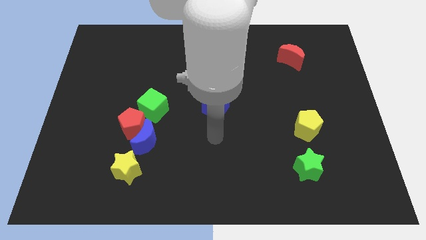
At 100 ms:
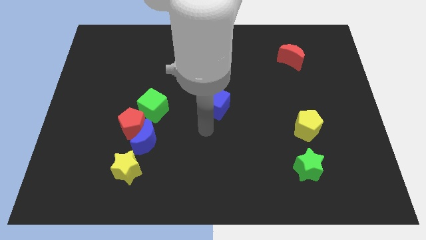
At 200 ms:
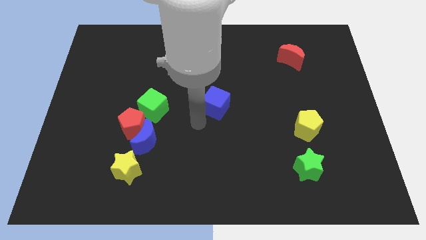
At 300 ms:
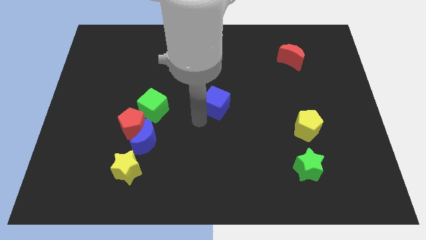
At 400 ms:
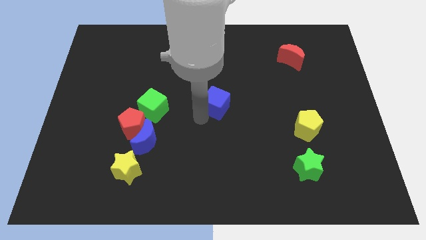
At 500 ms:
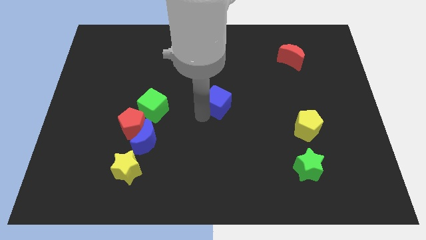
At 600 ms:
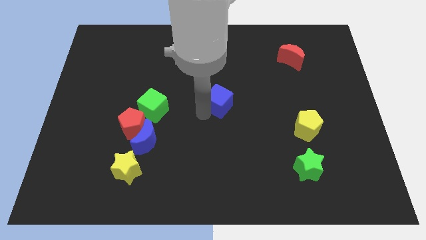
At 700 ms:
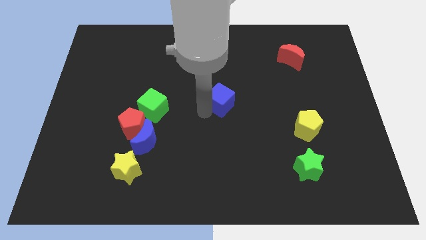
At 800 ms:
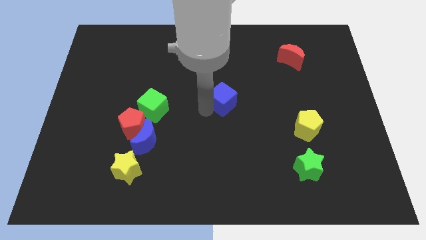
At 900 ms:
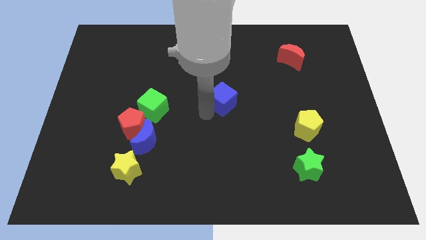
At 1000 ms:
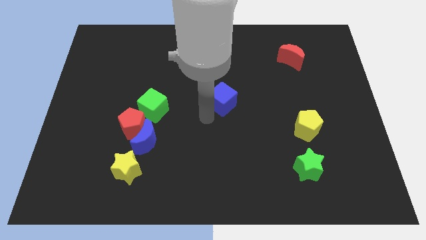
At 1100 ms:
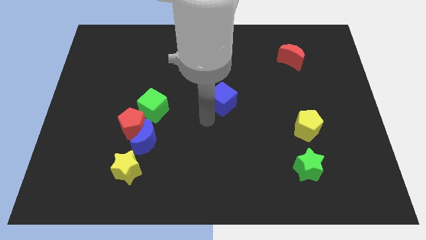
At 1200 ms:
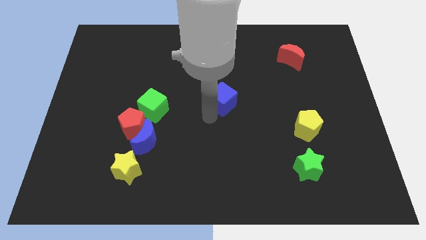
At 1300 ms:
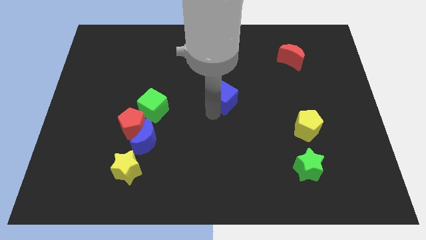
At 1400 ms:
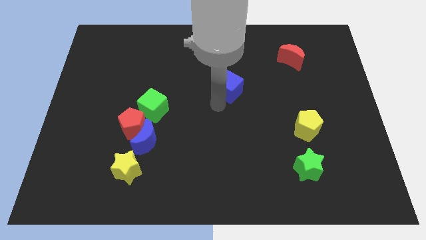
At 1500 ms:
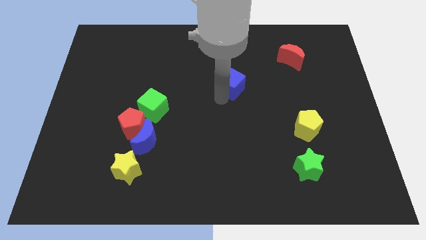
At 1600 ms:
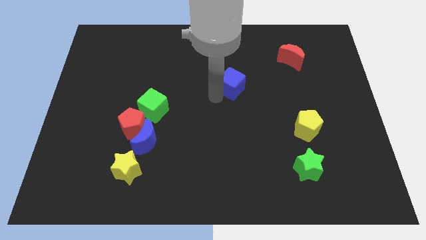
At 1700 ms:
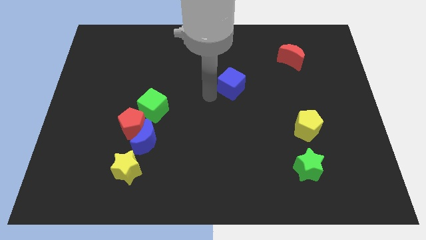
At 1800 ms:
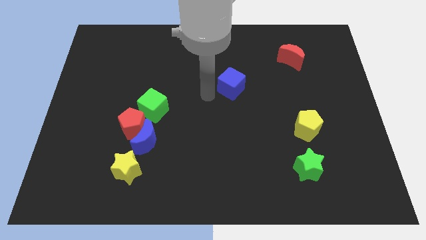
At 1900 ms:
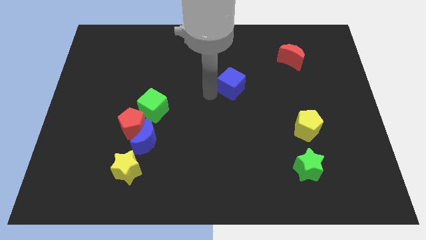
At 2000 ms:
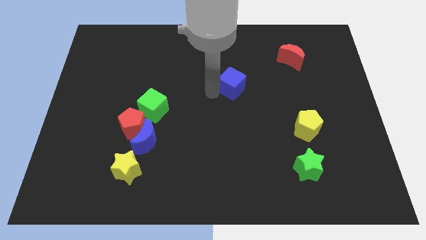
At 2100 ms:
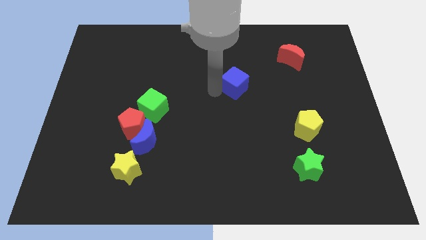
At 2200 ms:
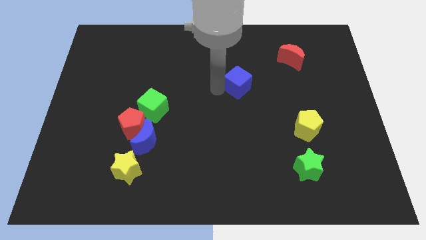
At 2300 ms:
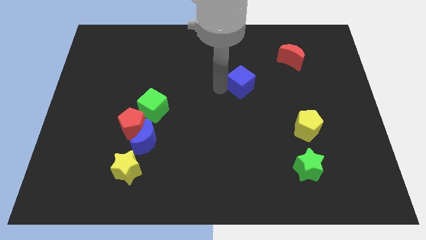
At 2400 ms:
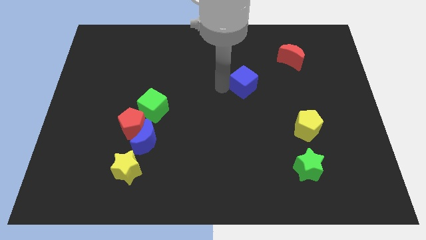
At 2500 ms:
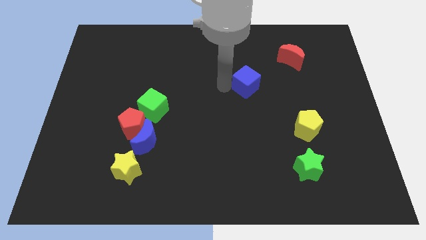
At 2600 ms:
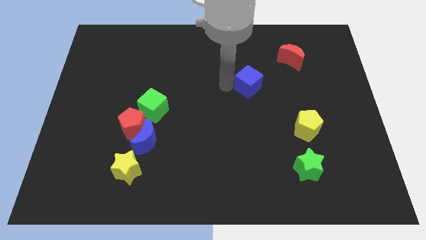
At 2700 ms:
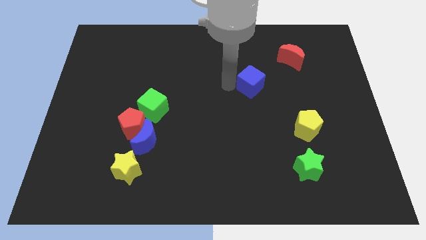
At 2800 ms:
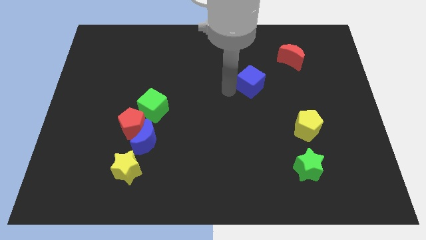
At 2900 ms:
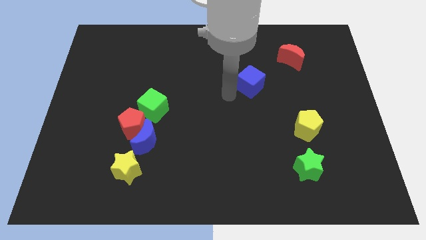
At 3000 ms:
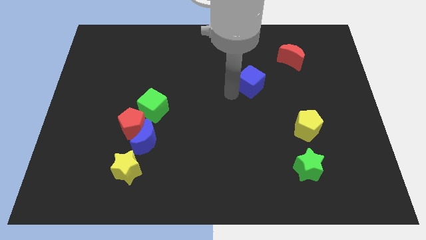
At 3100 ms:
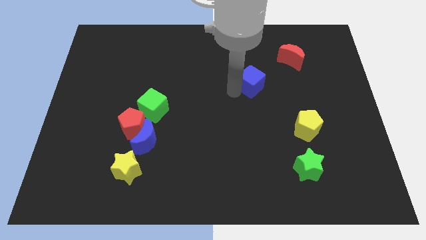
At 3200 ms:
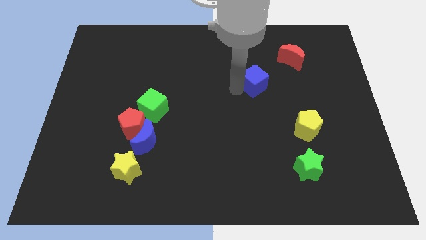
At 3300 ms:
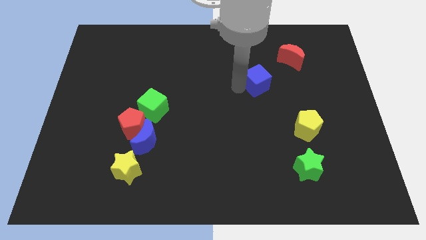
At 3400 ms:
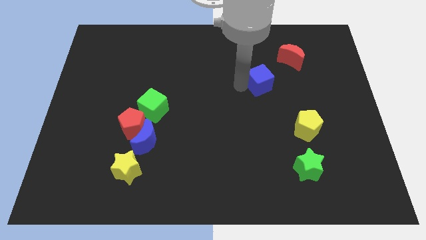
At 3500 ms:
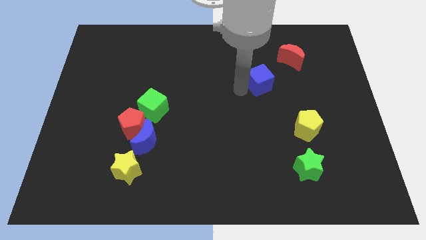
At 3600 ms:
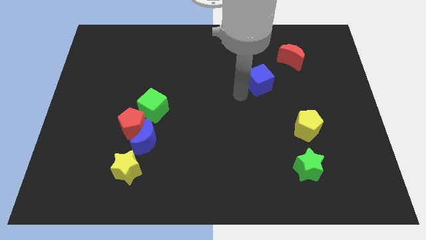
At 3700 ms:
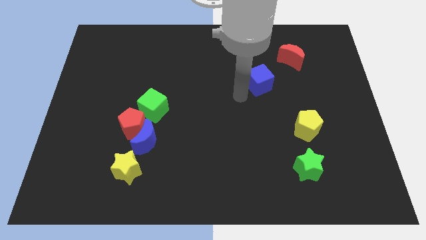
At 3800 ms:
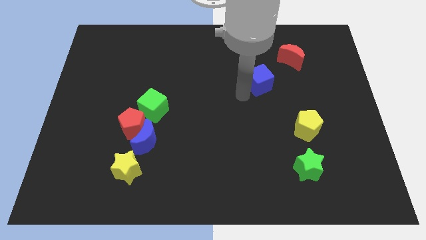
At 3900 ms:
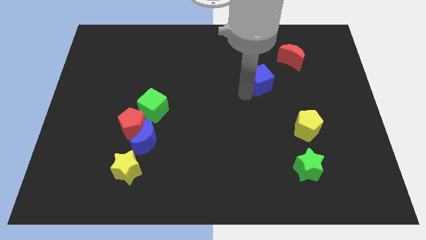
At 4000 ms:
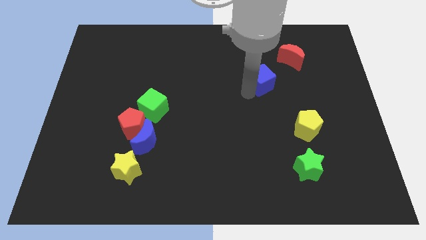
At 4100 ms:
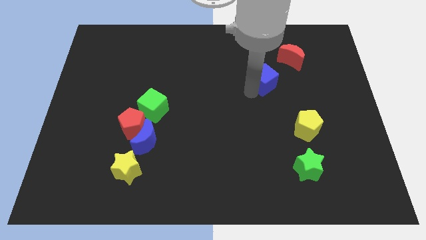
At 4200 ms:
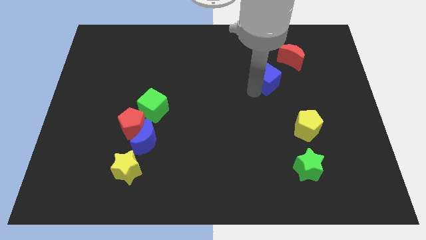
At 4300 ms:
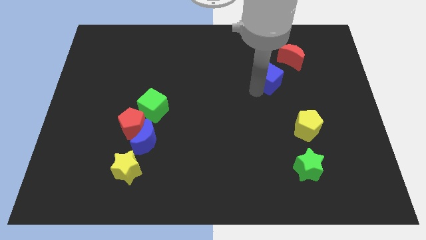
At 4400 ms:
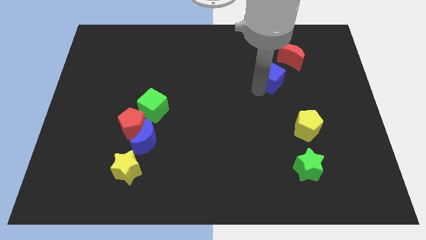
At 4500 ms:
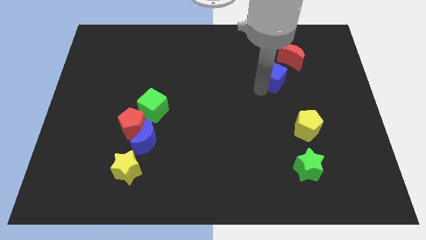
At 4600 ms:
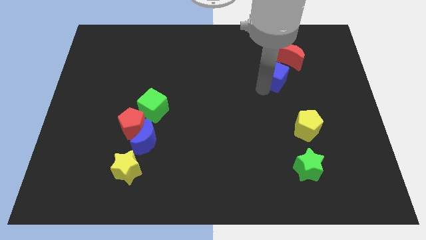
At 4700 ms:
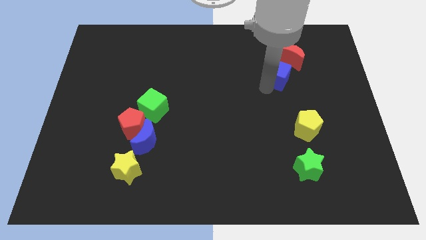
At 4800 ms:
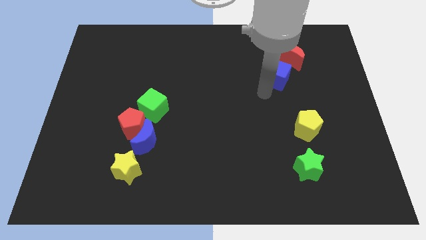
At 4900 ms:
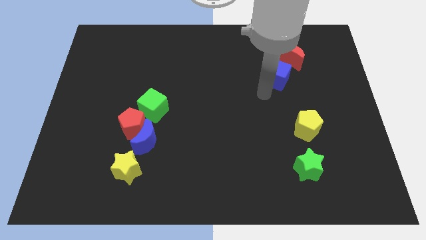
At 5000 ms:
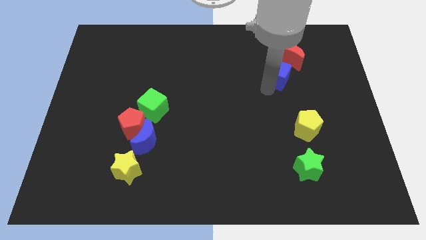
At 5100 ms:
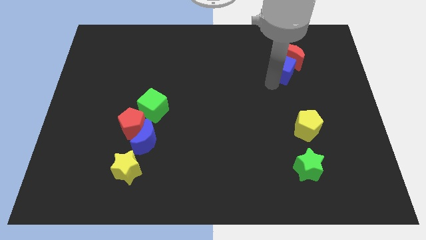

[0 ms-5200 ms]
push the blue cube next to the red moon
